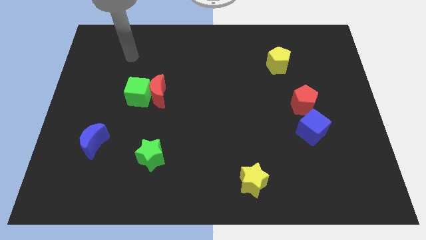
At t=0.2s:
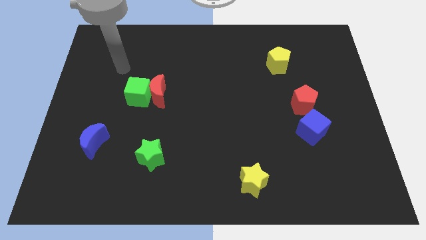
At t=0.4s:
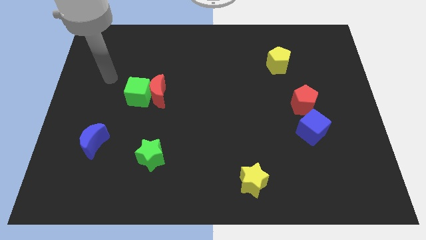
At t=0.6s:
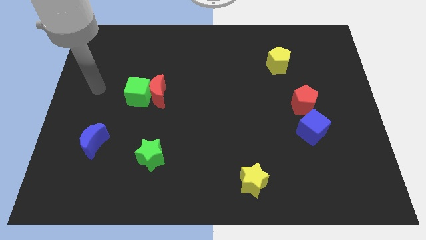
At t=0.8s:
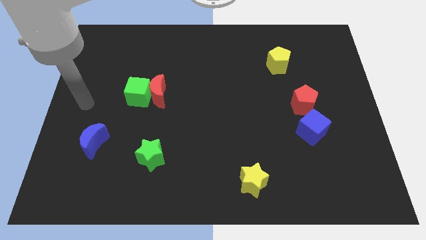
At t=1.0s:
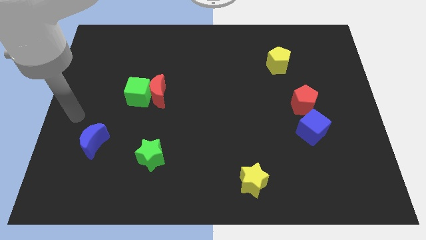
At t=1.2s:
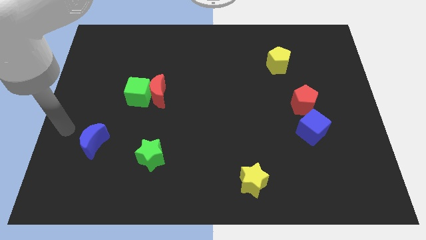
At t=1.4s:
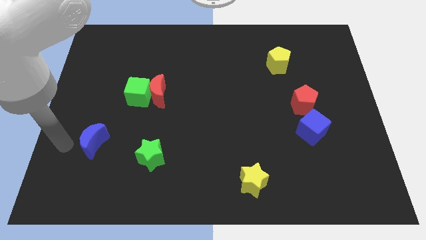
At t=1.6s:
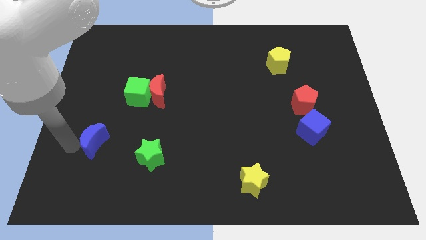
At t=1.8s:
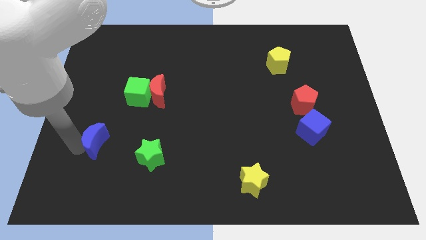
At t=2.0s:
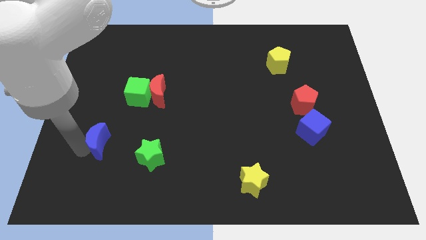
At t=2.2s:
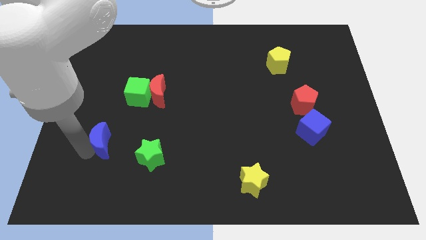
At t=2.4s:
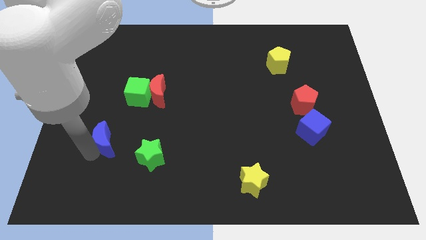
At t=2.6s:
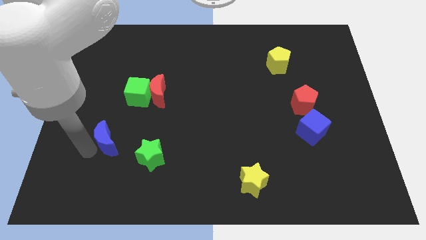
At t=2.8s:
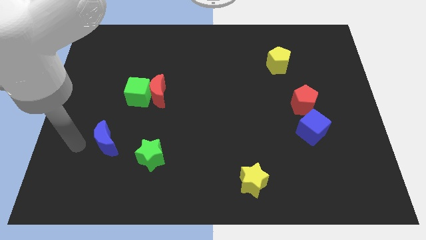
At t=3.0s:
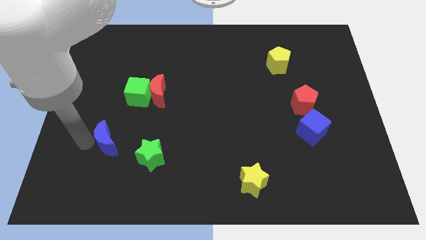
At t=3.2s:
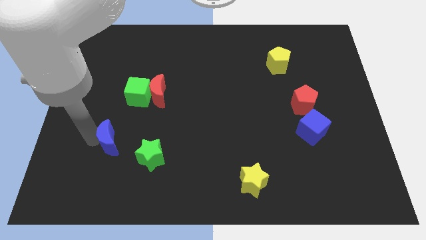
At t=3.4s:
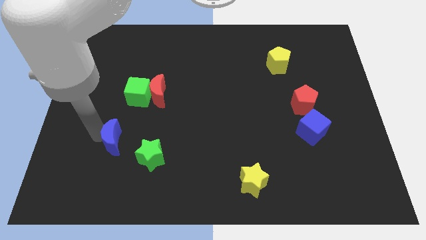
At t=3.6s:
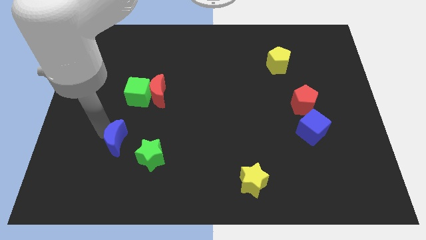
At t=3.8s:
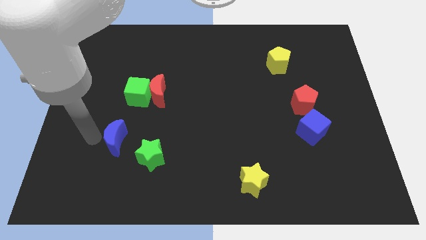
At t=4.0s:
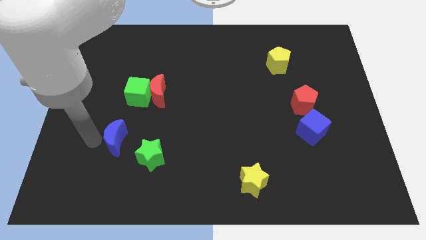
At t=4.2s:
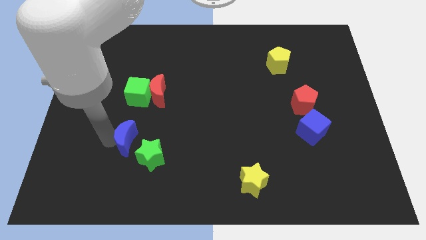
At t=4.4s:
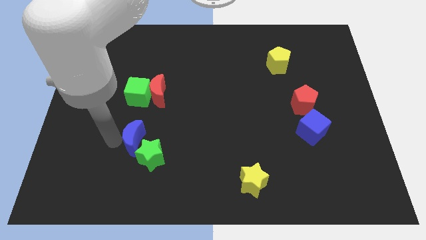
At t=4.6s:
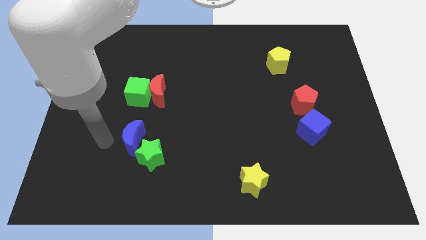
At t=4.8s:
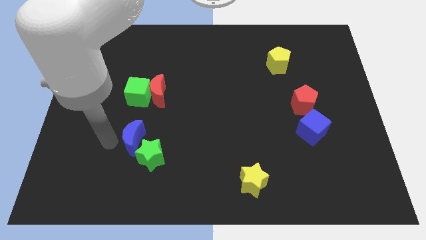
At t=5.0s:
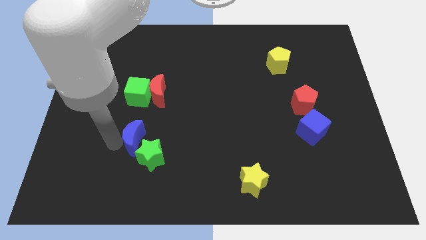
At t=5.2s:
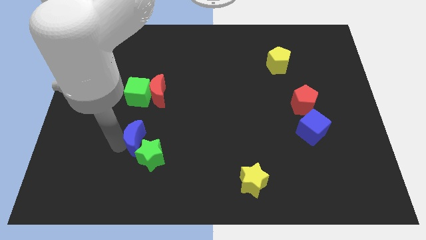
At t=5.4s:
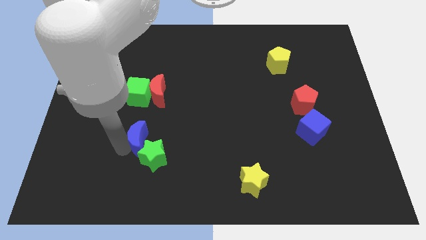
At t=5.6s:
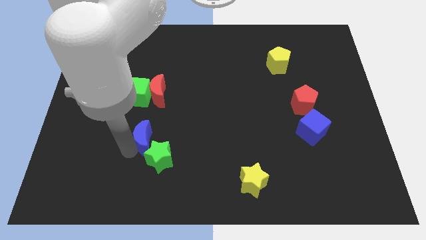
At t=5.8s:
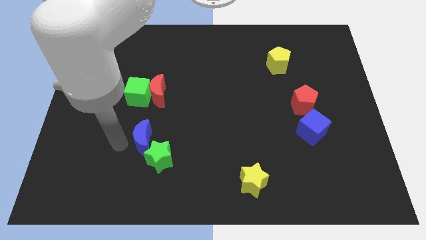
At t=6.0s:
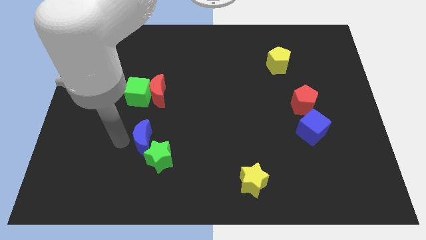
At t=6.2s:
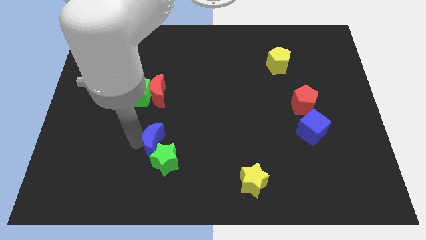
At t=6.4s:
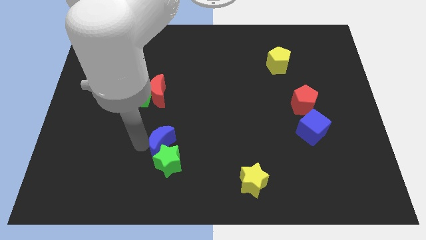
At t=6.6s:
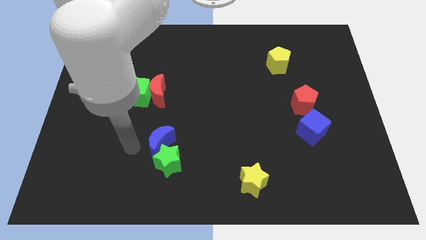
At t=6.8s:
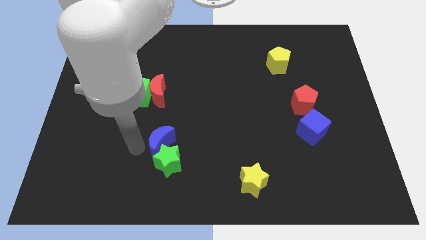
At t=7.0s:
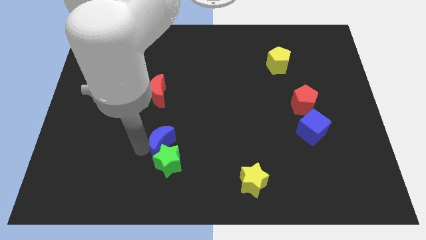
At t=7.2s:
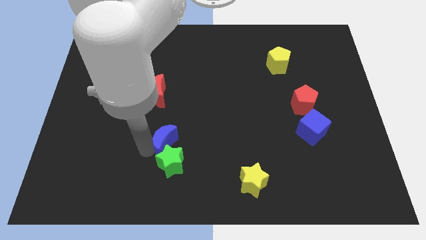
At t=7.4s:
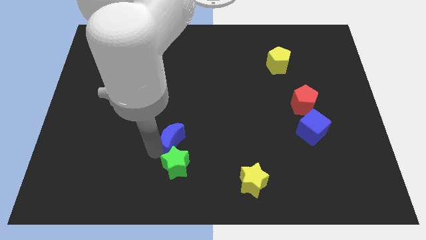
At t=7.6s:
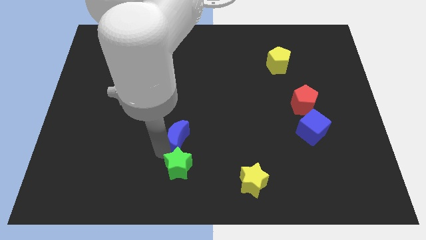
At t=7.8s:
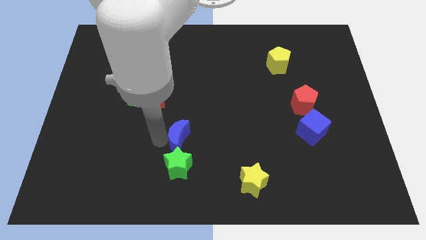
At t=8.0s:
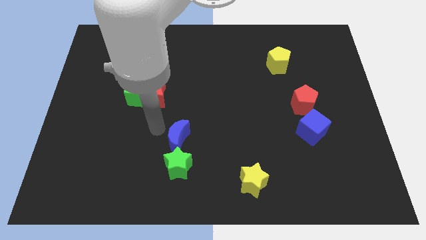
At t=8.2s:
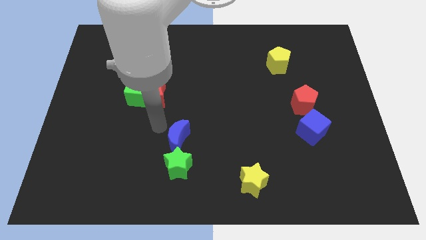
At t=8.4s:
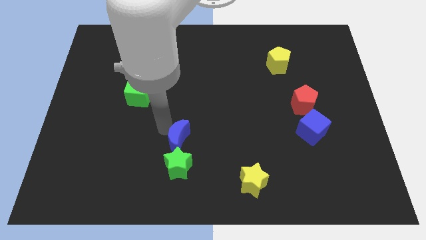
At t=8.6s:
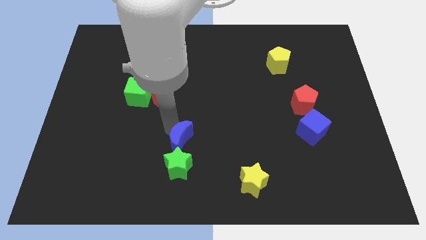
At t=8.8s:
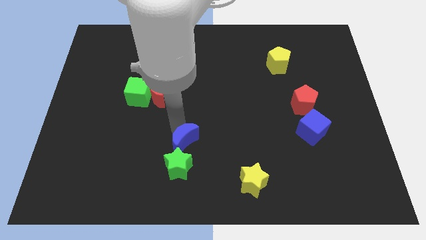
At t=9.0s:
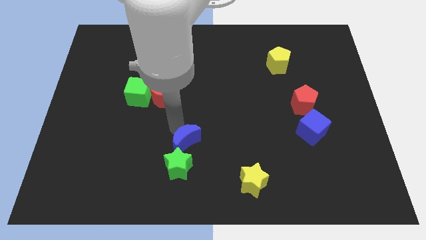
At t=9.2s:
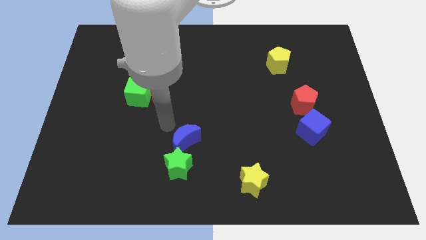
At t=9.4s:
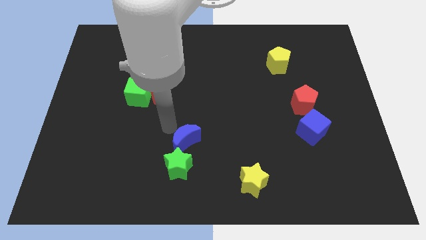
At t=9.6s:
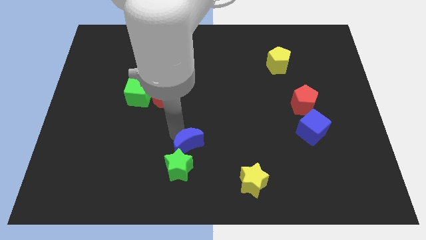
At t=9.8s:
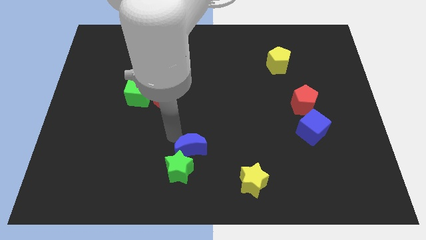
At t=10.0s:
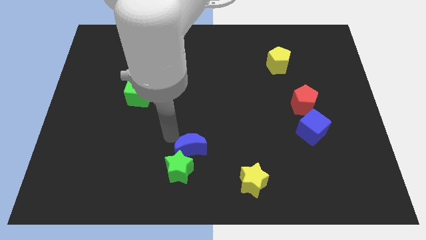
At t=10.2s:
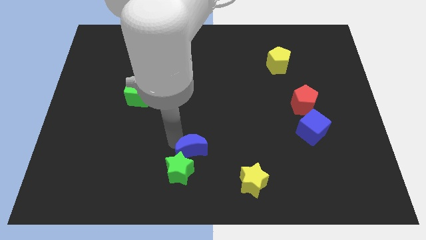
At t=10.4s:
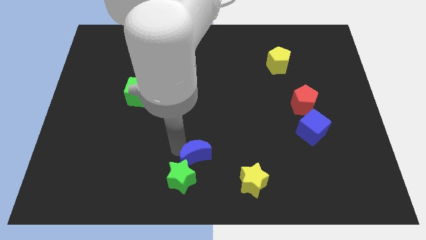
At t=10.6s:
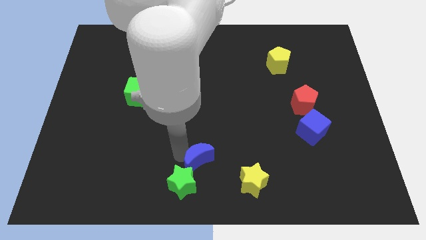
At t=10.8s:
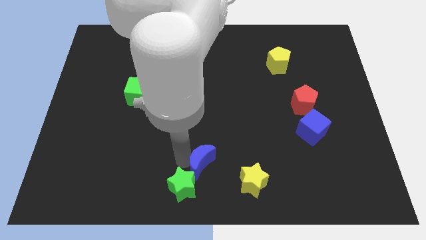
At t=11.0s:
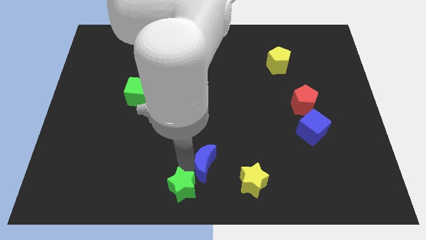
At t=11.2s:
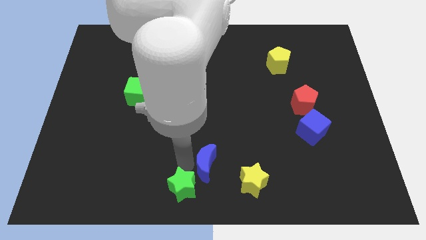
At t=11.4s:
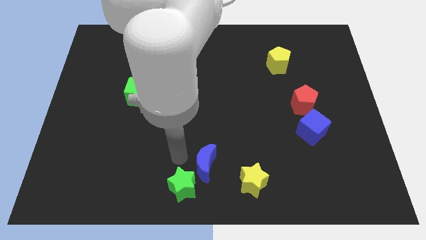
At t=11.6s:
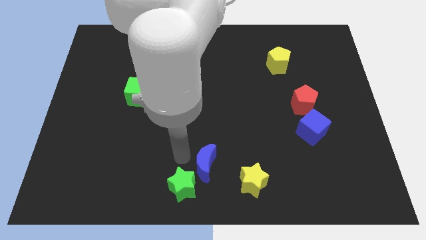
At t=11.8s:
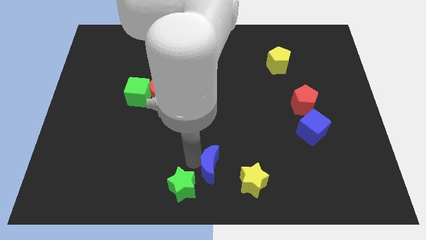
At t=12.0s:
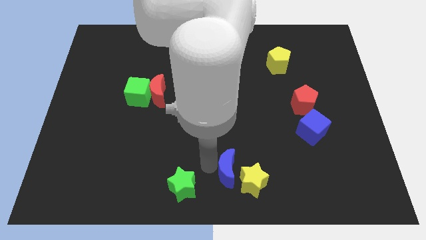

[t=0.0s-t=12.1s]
push the blue moon next to the yellow star
